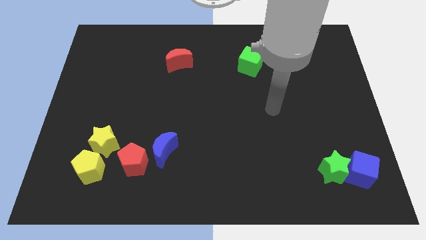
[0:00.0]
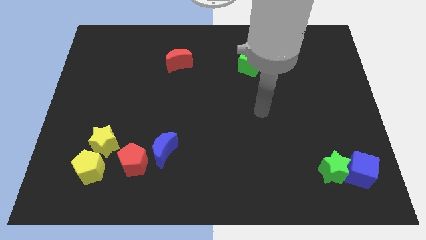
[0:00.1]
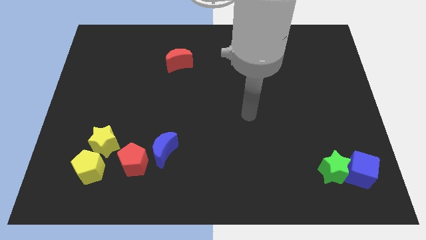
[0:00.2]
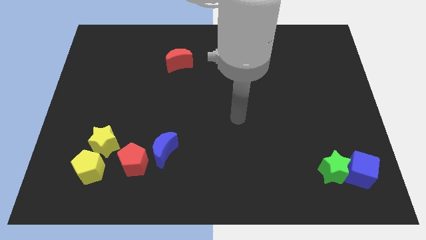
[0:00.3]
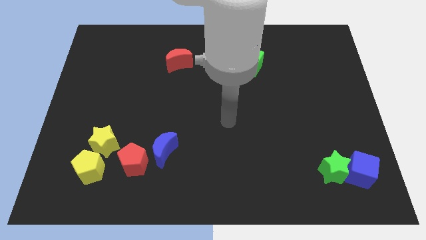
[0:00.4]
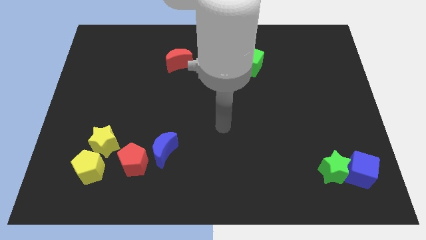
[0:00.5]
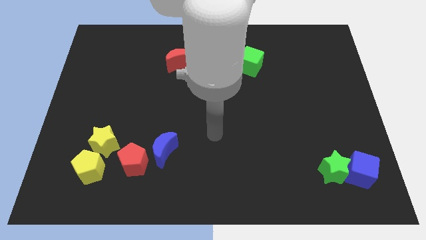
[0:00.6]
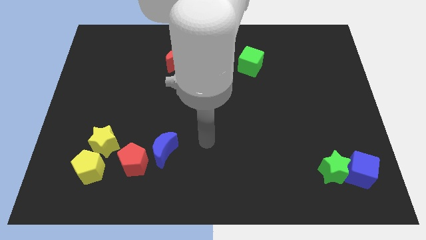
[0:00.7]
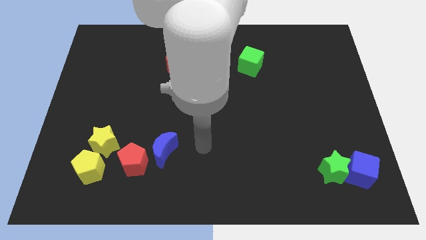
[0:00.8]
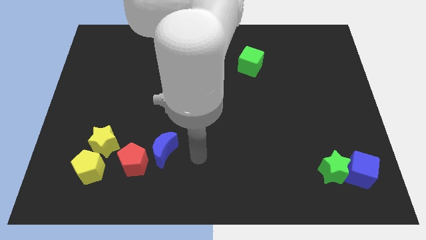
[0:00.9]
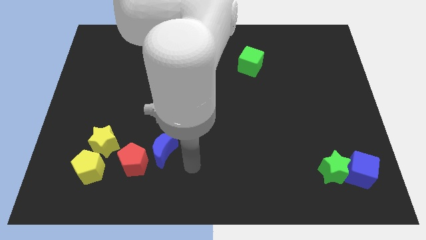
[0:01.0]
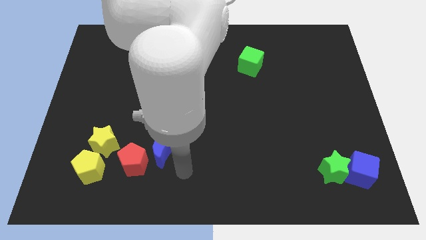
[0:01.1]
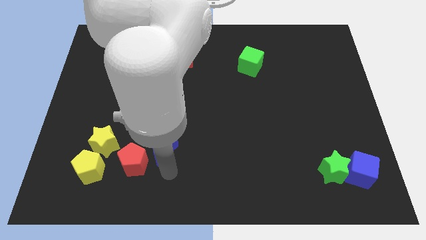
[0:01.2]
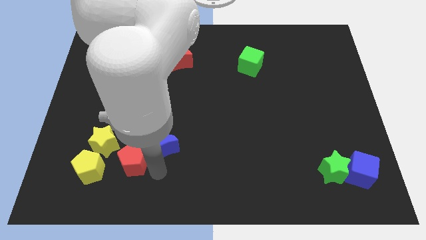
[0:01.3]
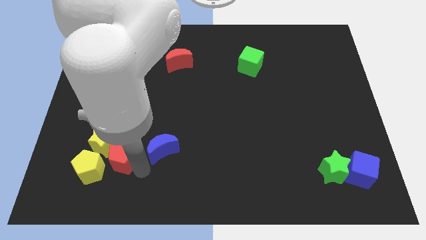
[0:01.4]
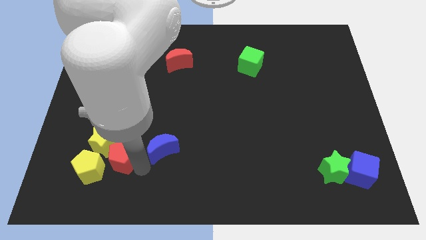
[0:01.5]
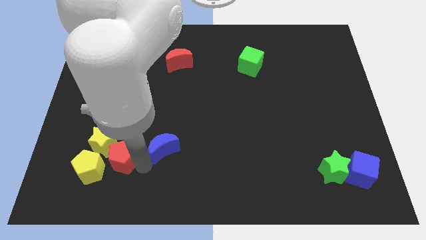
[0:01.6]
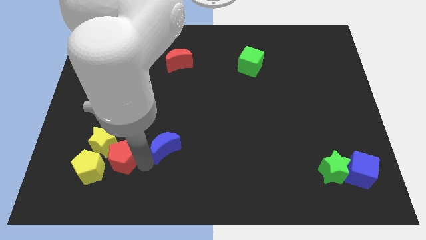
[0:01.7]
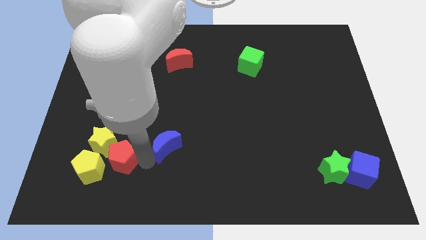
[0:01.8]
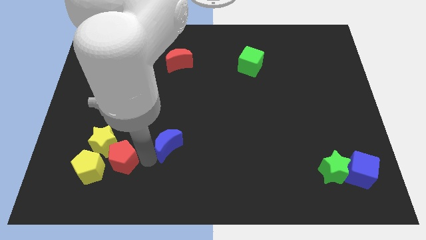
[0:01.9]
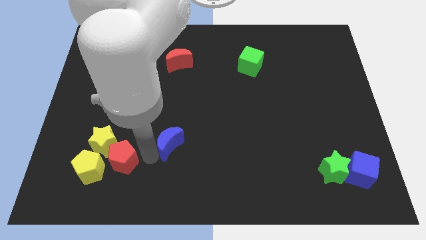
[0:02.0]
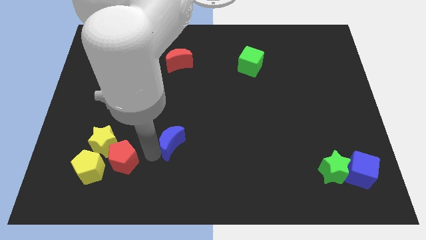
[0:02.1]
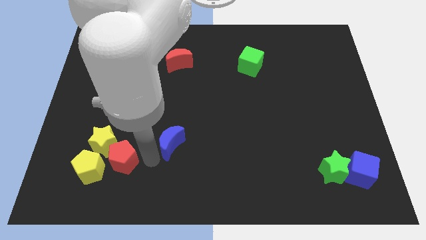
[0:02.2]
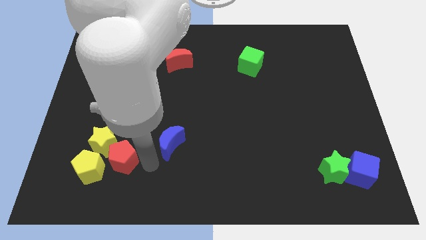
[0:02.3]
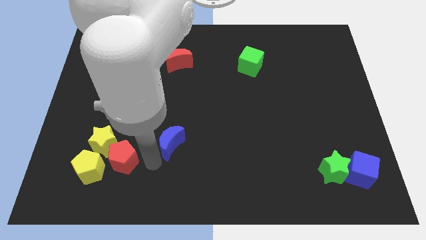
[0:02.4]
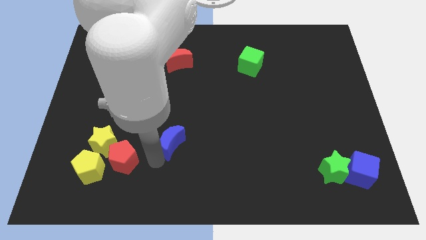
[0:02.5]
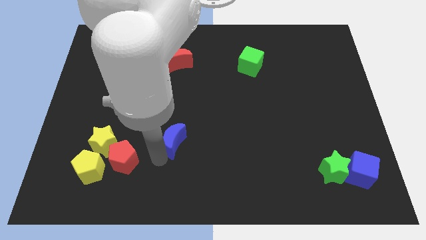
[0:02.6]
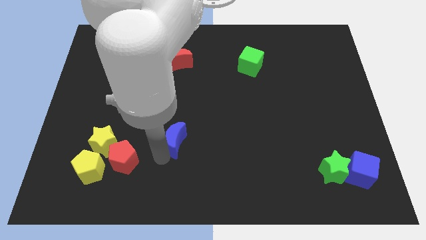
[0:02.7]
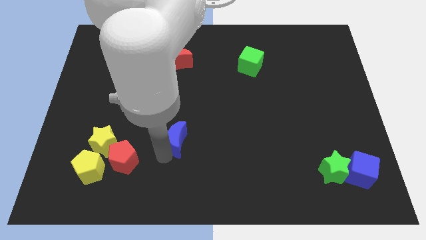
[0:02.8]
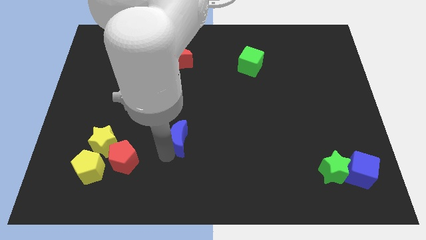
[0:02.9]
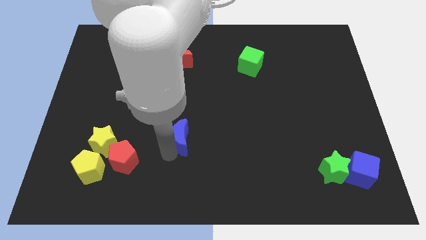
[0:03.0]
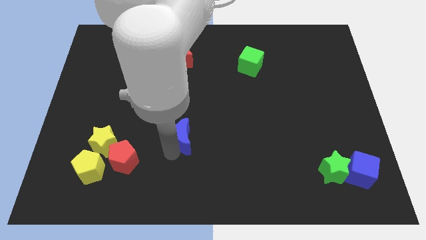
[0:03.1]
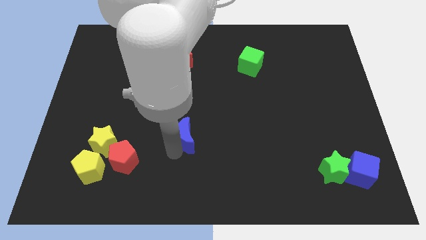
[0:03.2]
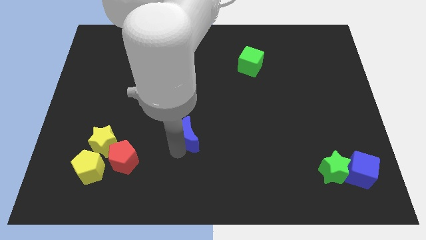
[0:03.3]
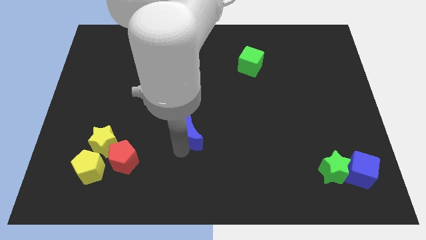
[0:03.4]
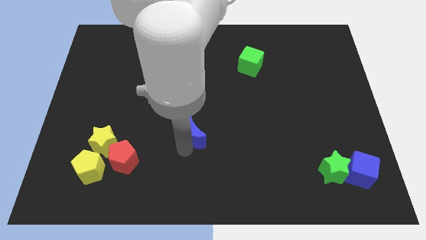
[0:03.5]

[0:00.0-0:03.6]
slide the blue moon up and to the right diagonally a bit

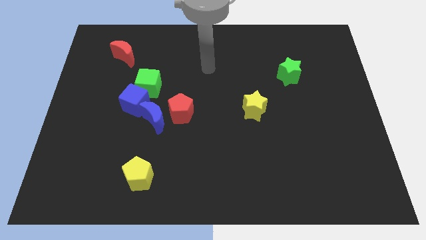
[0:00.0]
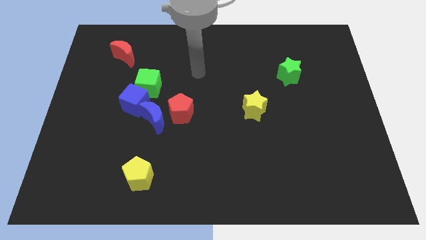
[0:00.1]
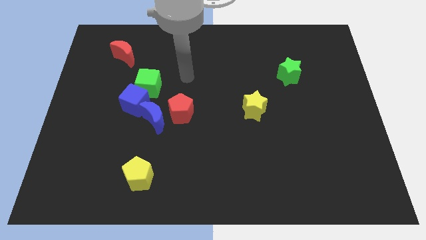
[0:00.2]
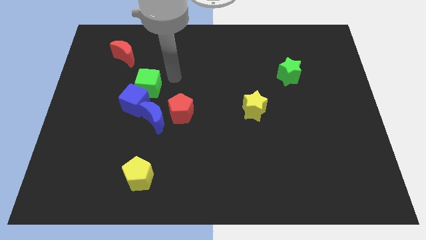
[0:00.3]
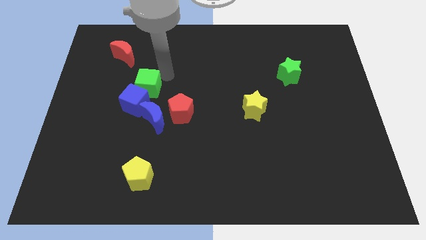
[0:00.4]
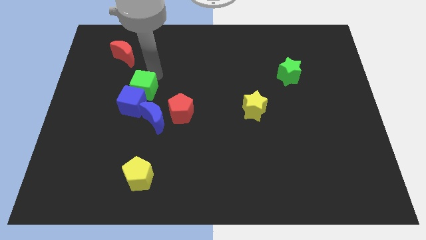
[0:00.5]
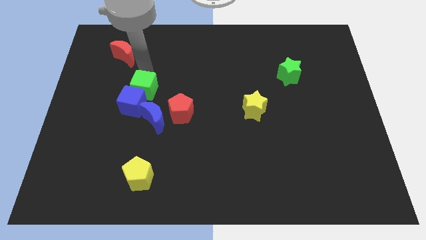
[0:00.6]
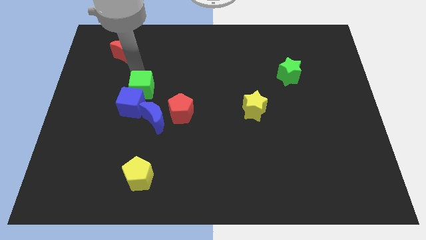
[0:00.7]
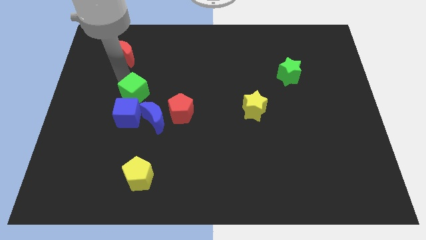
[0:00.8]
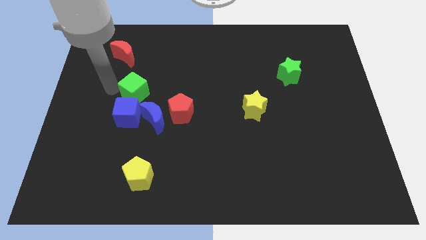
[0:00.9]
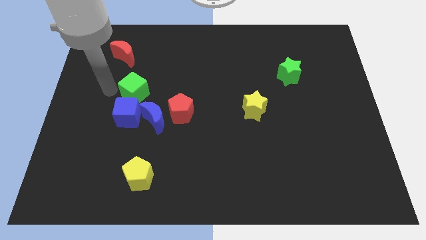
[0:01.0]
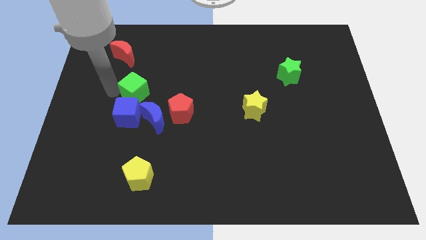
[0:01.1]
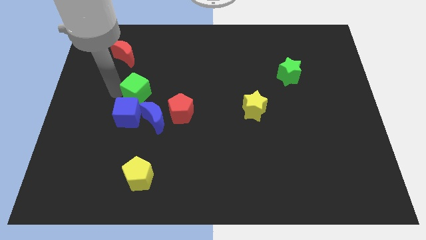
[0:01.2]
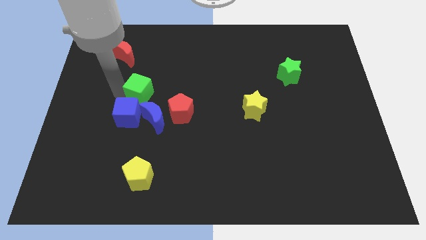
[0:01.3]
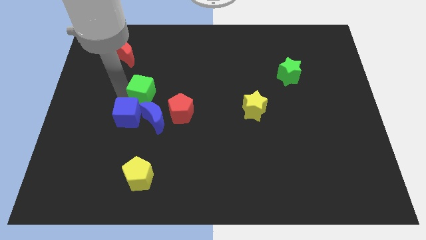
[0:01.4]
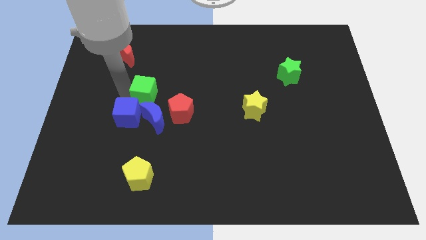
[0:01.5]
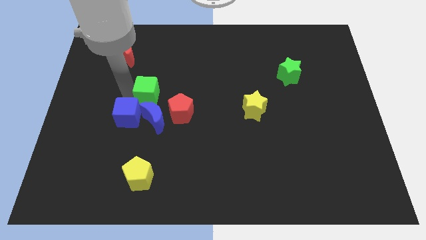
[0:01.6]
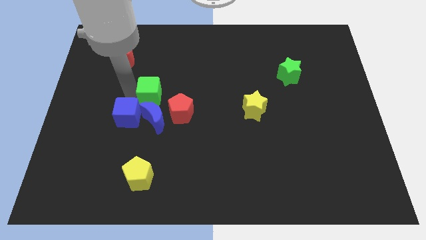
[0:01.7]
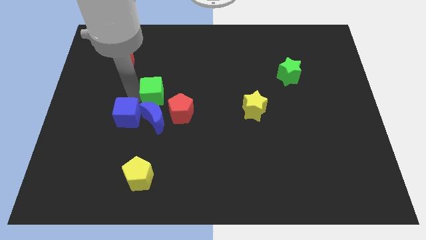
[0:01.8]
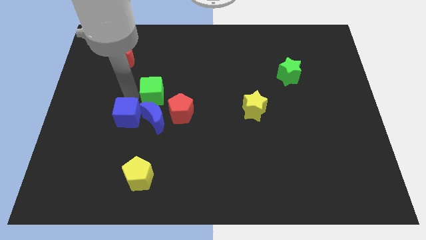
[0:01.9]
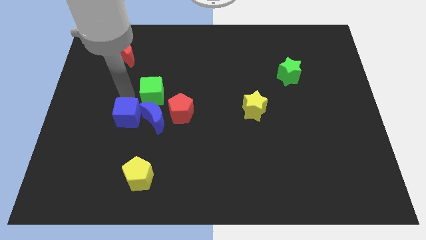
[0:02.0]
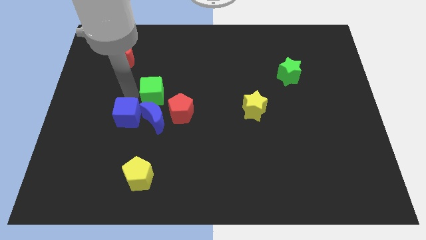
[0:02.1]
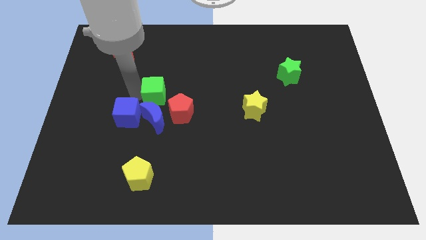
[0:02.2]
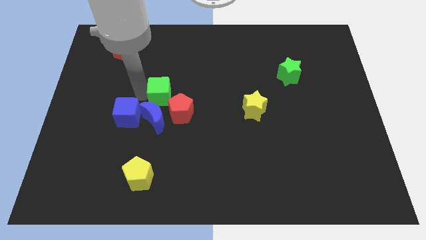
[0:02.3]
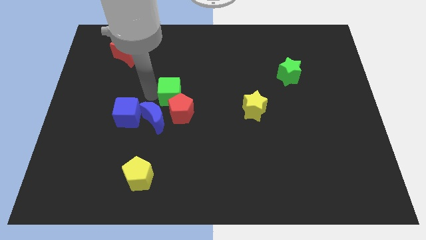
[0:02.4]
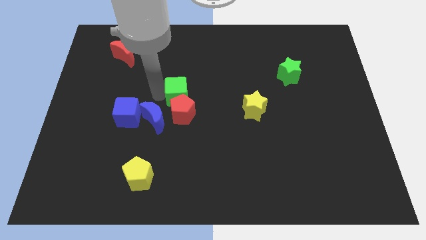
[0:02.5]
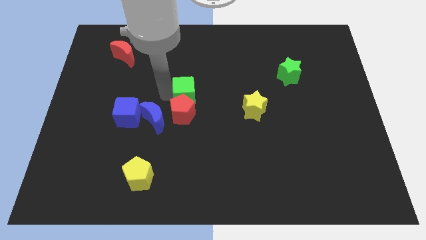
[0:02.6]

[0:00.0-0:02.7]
slightly slide the green cube down and to the right diagonally

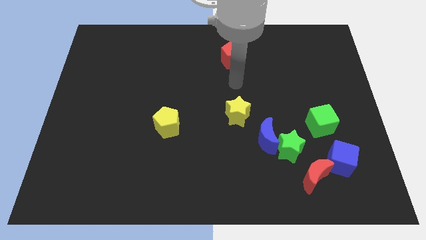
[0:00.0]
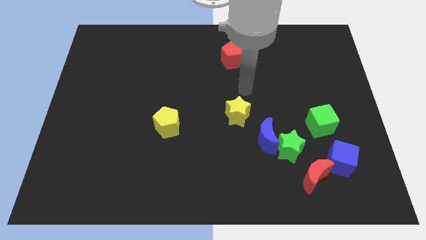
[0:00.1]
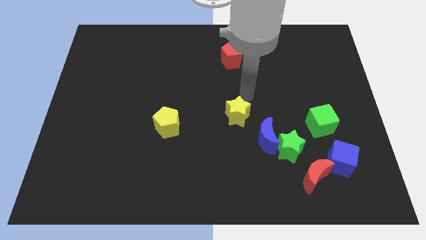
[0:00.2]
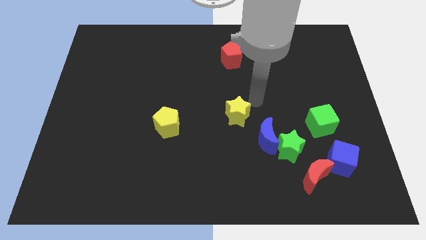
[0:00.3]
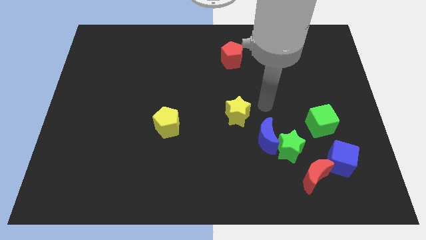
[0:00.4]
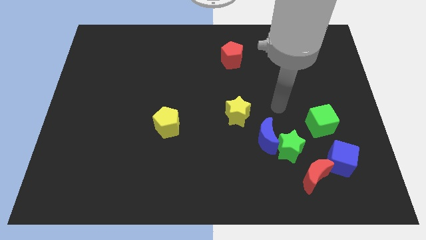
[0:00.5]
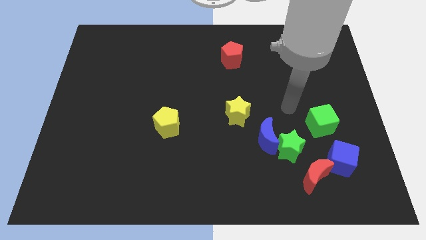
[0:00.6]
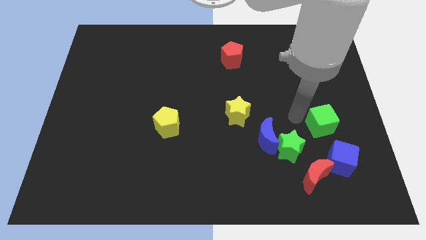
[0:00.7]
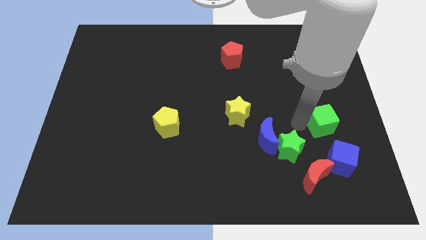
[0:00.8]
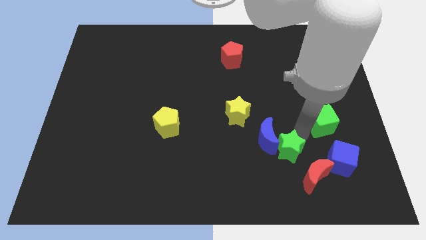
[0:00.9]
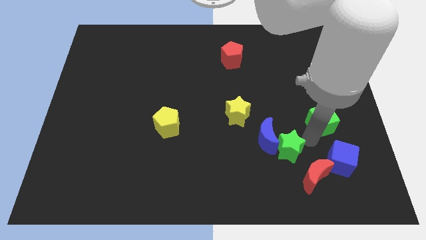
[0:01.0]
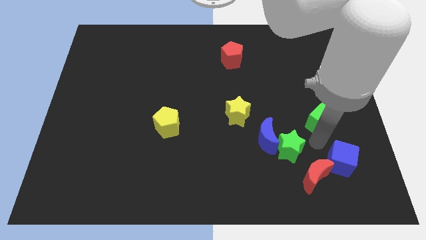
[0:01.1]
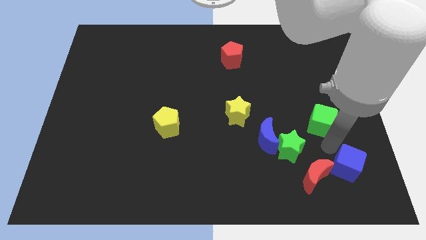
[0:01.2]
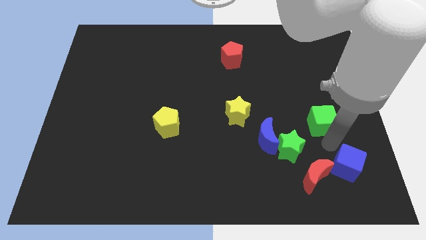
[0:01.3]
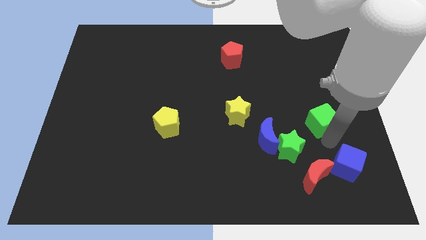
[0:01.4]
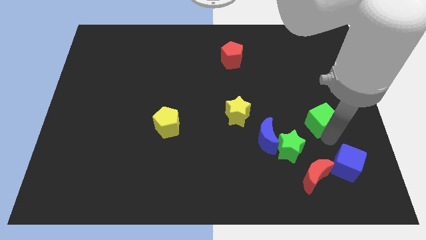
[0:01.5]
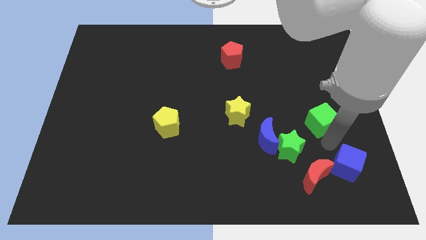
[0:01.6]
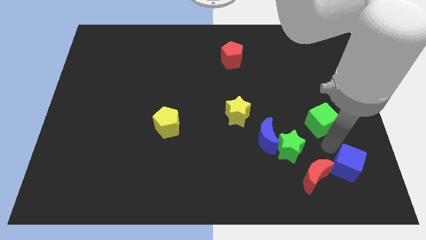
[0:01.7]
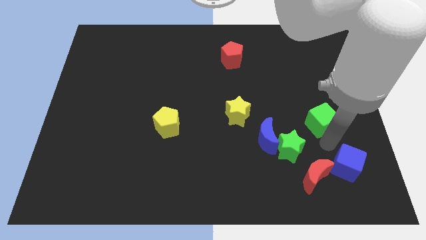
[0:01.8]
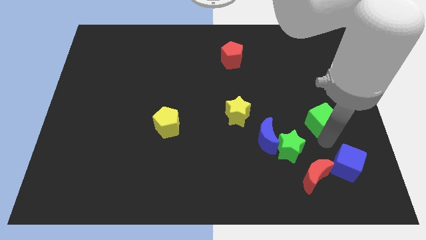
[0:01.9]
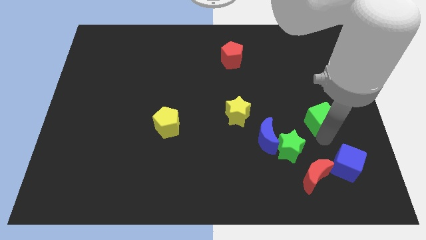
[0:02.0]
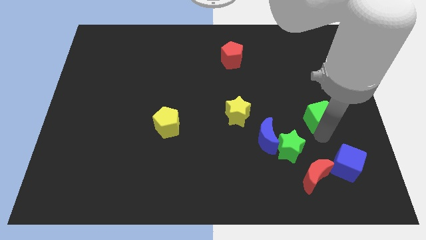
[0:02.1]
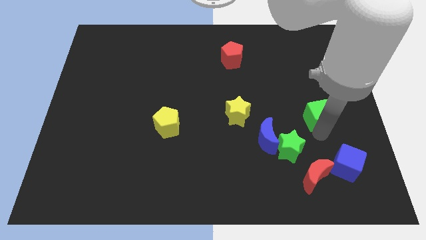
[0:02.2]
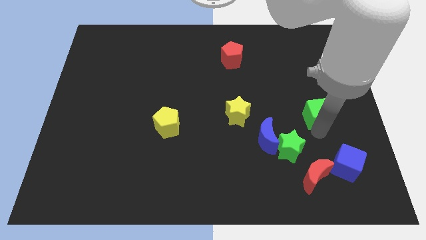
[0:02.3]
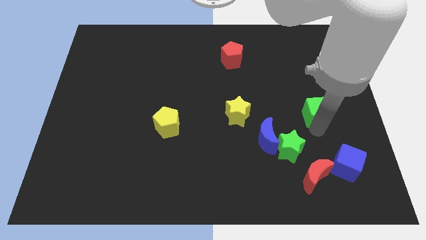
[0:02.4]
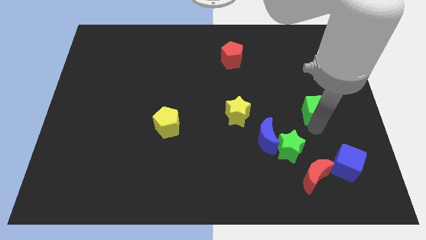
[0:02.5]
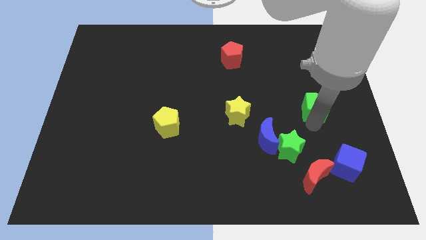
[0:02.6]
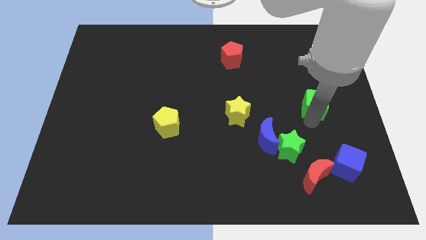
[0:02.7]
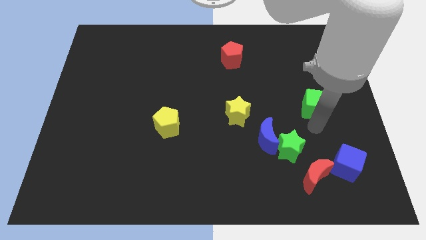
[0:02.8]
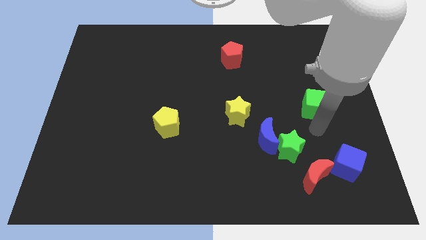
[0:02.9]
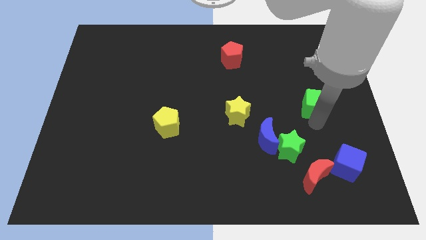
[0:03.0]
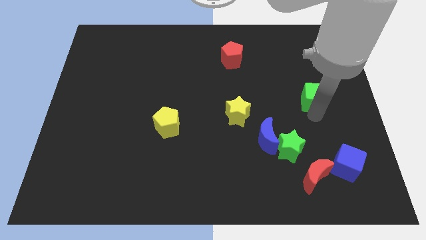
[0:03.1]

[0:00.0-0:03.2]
move the green cube upwards a little
